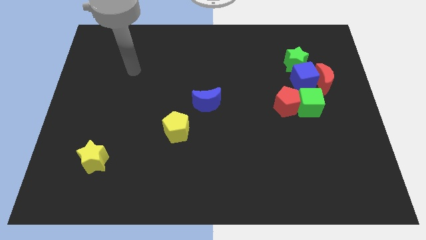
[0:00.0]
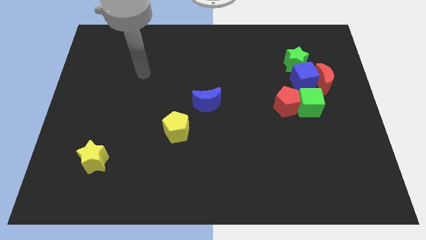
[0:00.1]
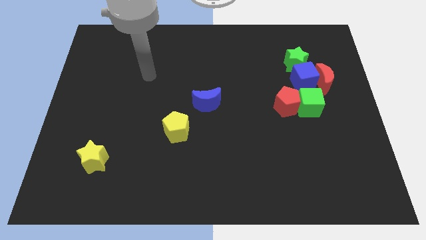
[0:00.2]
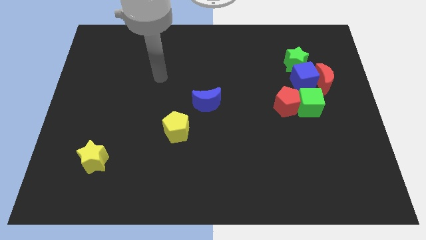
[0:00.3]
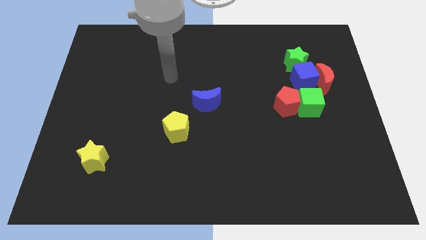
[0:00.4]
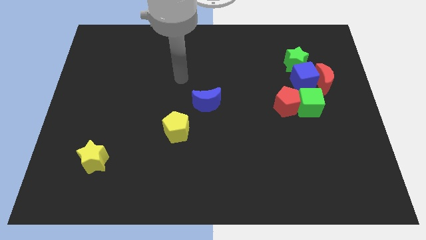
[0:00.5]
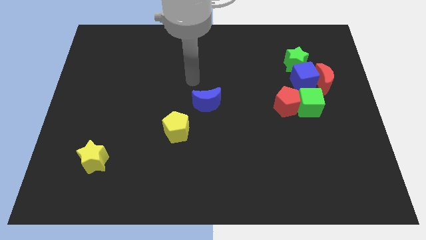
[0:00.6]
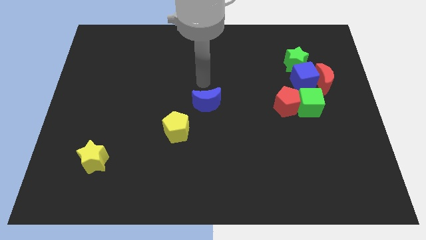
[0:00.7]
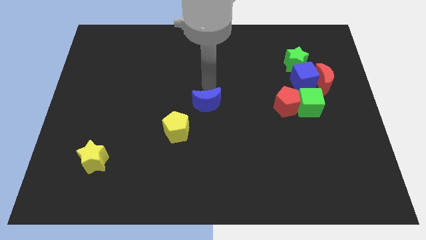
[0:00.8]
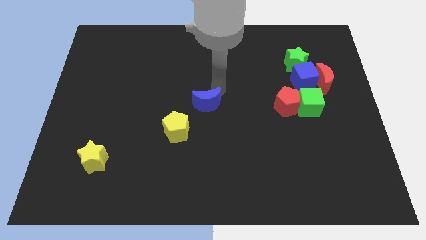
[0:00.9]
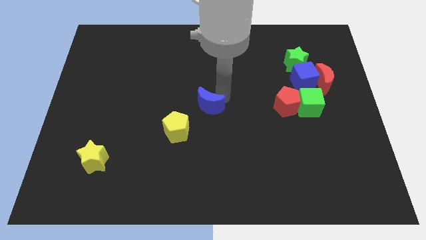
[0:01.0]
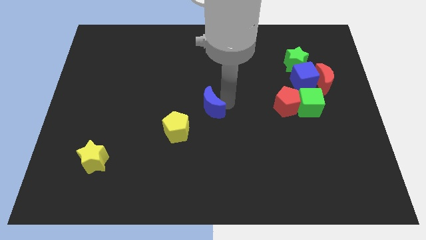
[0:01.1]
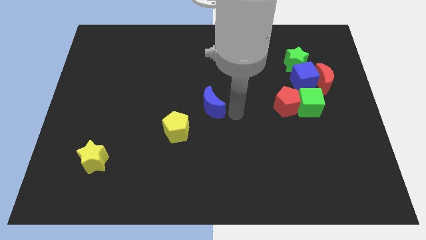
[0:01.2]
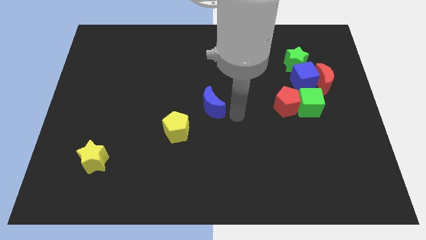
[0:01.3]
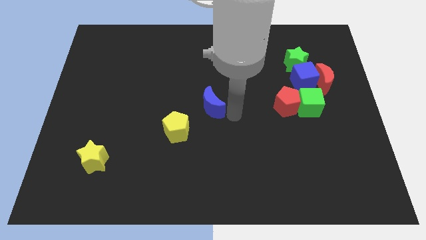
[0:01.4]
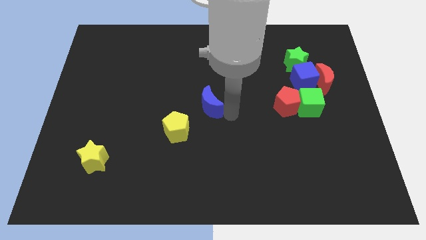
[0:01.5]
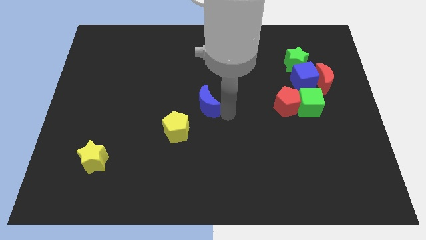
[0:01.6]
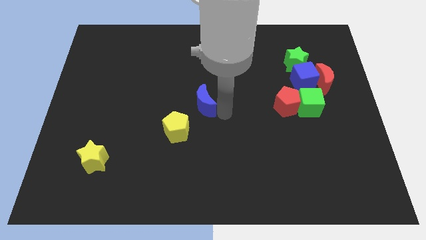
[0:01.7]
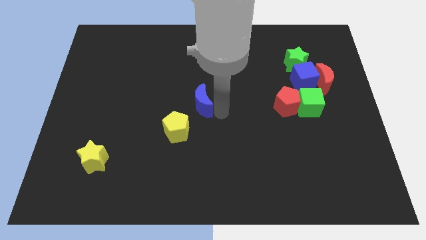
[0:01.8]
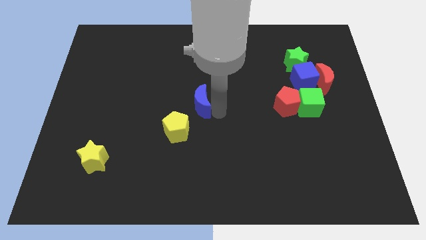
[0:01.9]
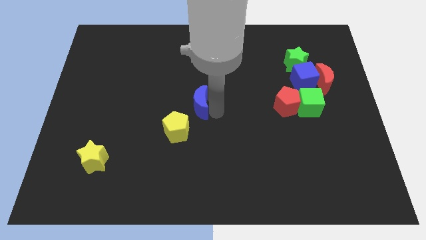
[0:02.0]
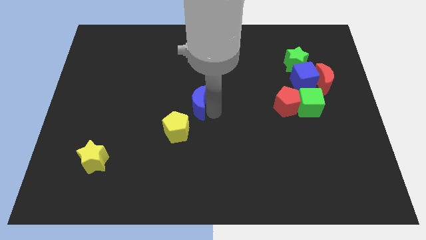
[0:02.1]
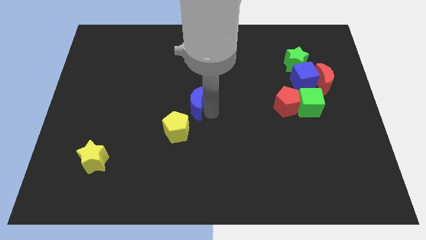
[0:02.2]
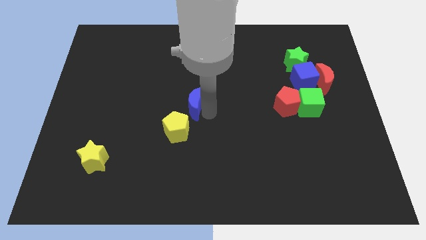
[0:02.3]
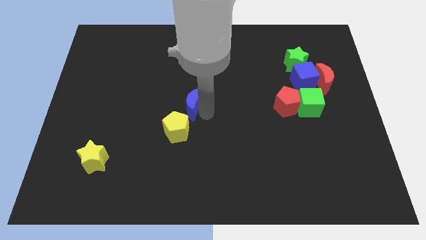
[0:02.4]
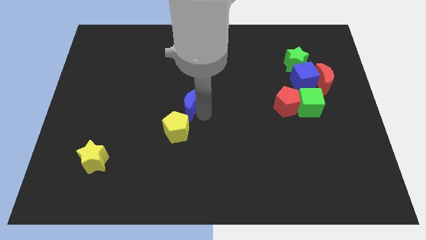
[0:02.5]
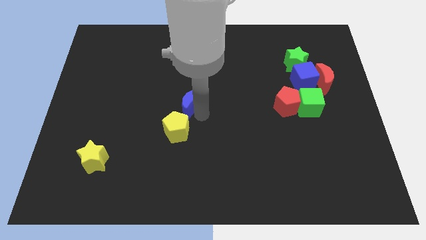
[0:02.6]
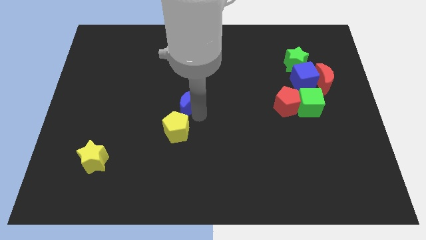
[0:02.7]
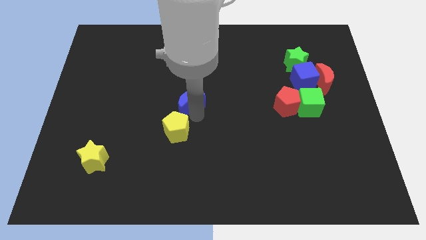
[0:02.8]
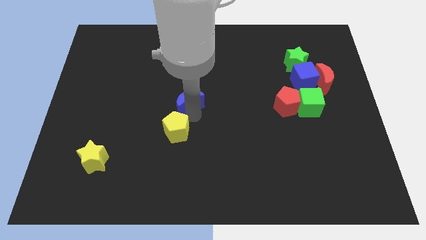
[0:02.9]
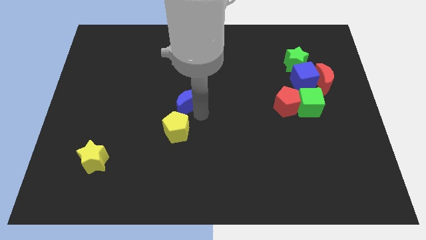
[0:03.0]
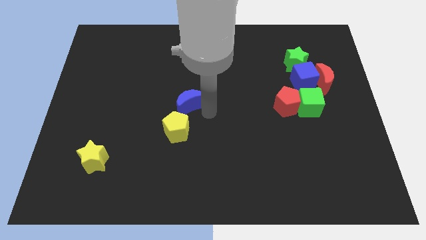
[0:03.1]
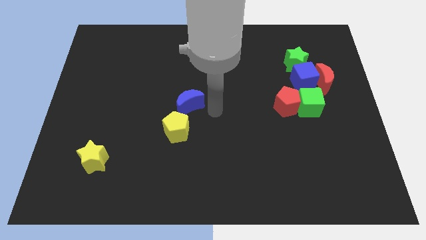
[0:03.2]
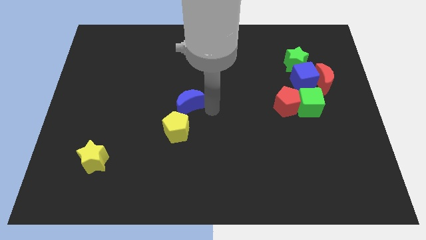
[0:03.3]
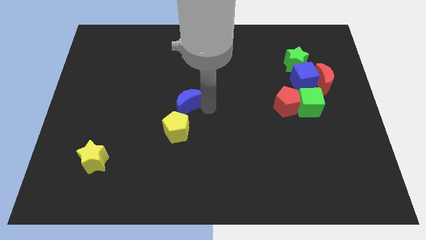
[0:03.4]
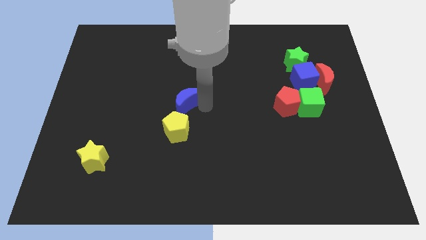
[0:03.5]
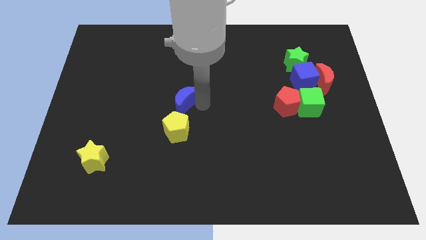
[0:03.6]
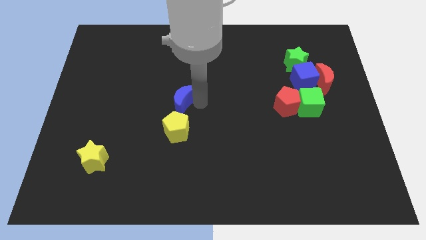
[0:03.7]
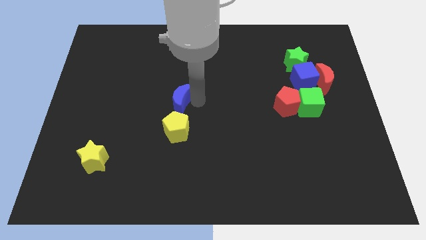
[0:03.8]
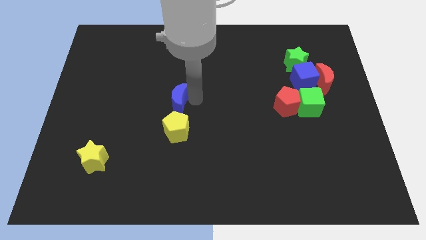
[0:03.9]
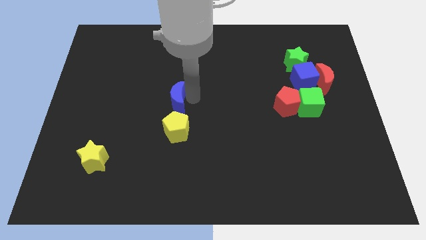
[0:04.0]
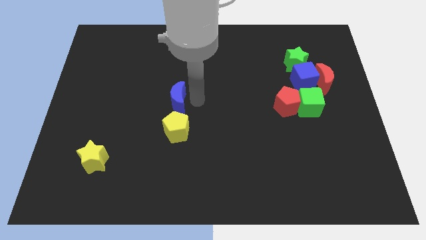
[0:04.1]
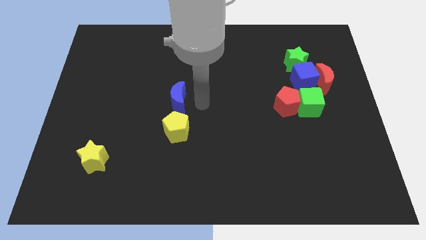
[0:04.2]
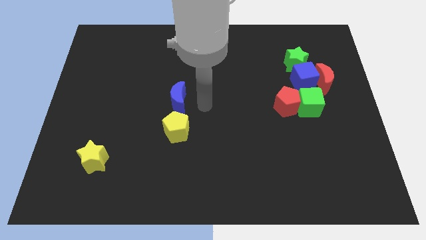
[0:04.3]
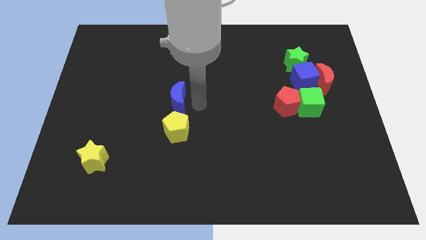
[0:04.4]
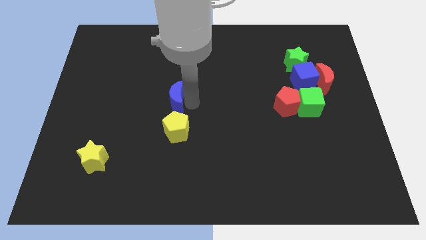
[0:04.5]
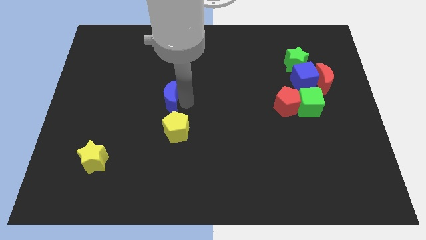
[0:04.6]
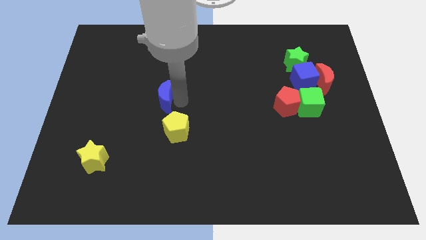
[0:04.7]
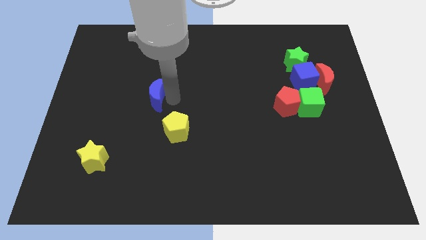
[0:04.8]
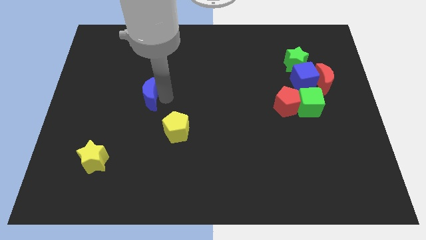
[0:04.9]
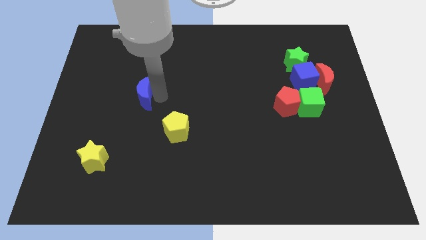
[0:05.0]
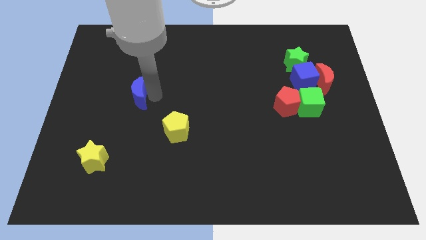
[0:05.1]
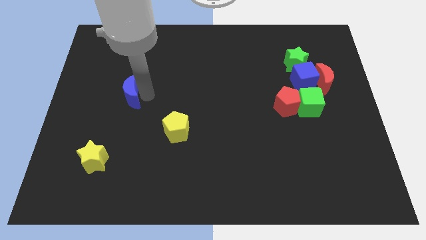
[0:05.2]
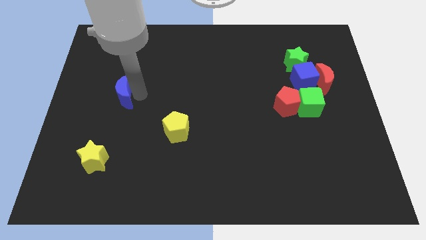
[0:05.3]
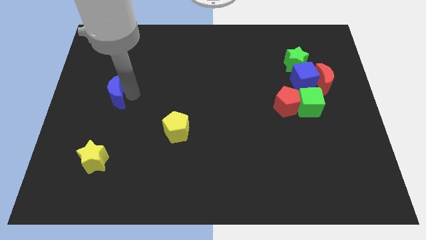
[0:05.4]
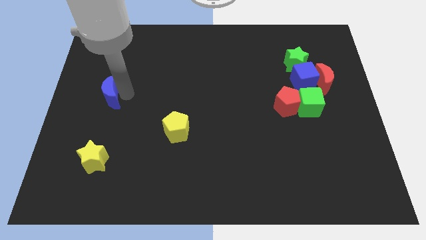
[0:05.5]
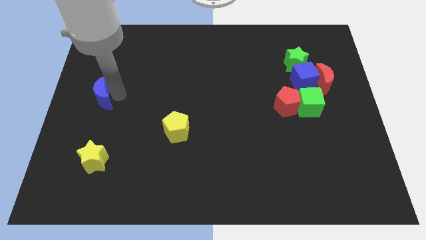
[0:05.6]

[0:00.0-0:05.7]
move the blue moon to the left side of the board

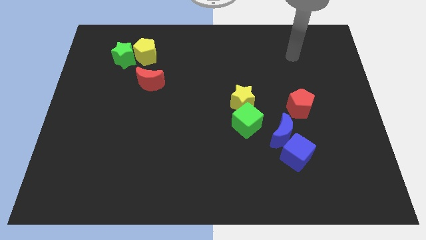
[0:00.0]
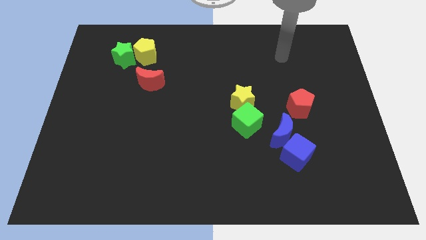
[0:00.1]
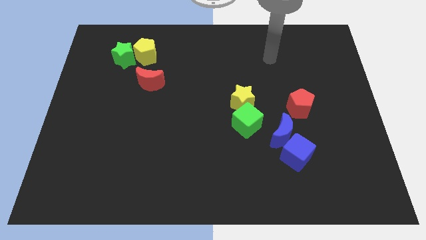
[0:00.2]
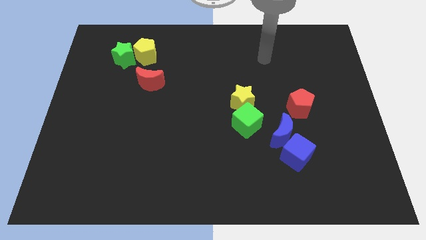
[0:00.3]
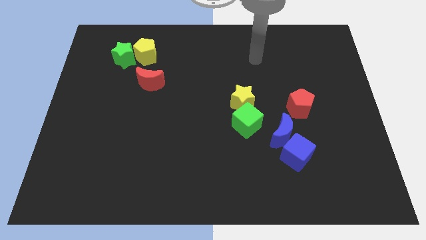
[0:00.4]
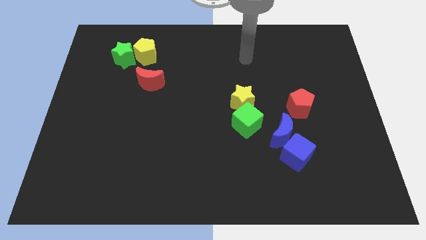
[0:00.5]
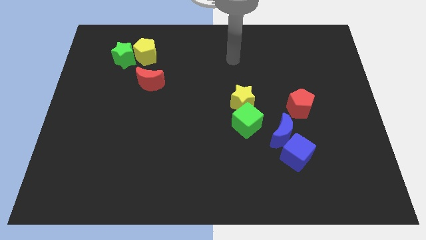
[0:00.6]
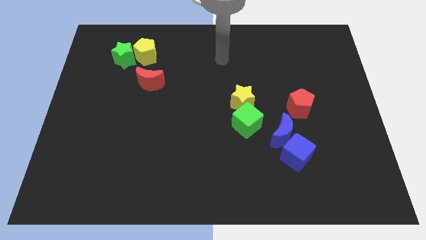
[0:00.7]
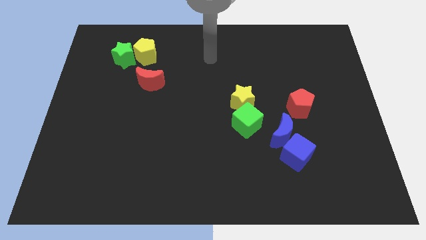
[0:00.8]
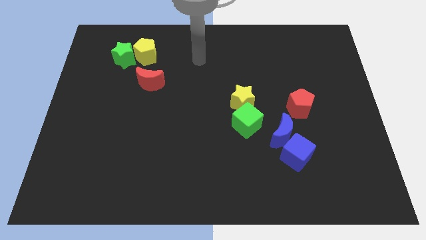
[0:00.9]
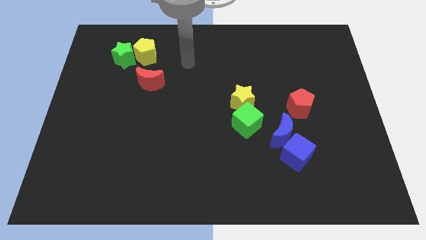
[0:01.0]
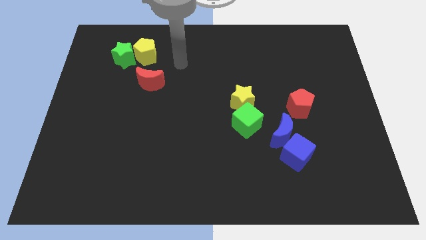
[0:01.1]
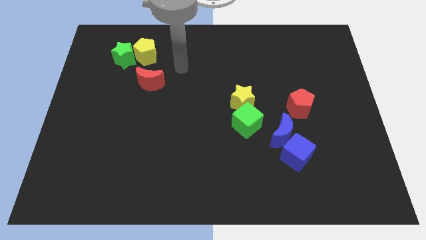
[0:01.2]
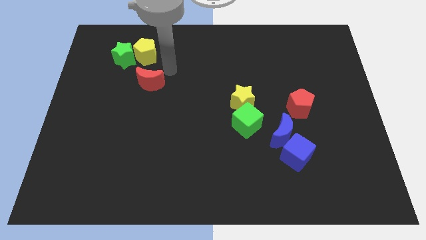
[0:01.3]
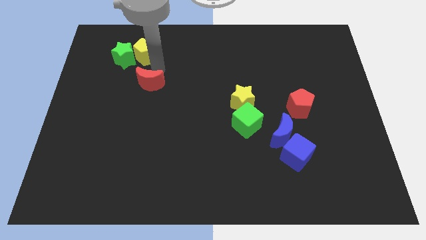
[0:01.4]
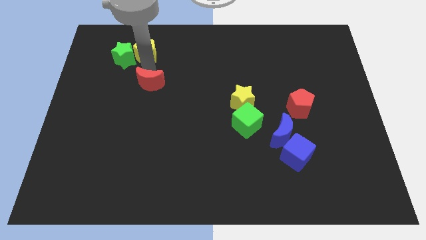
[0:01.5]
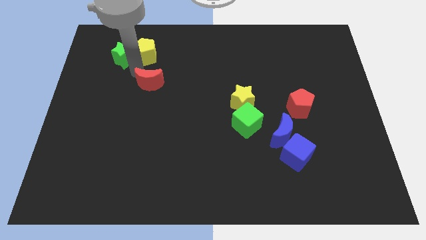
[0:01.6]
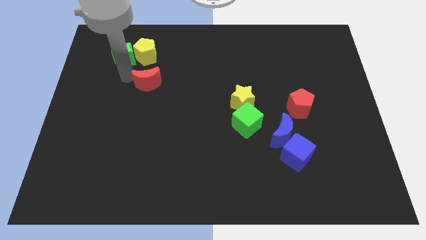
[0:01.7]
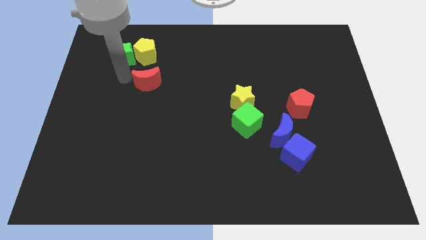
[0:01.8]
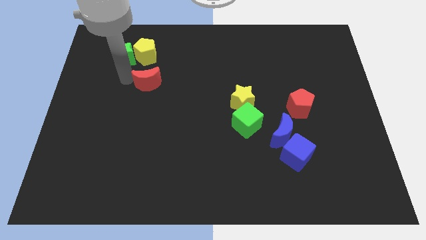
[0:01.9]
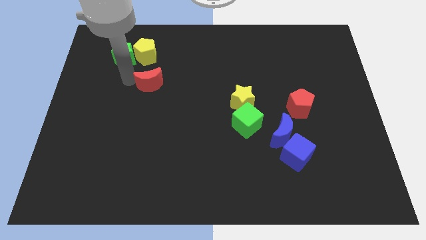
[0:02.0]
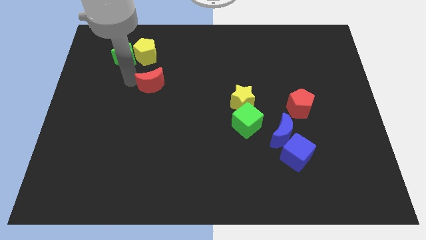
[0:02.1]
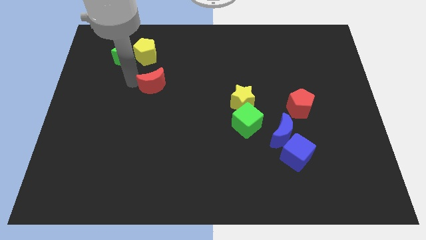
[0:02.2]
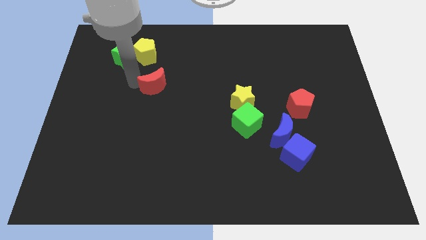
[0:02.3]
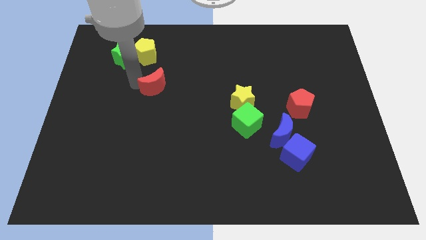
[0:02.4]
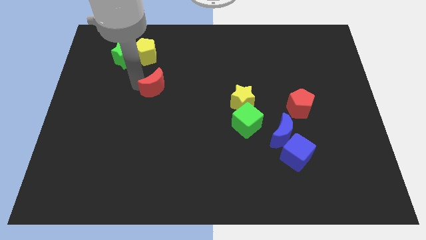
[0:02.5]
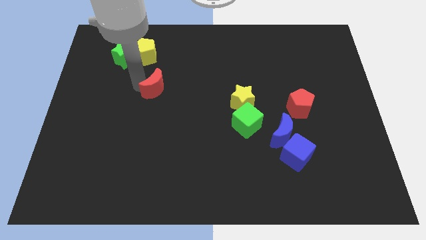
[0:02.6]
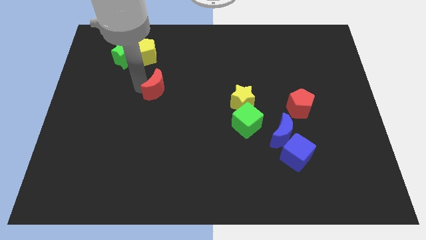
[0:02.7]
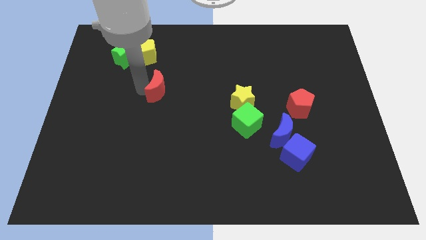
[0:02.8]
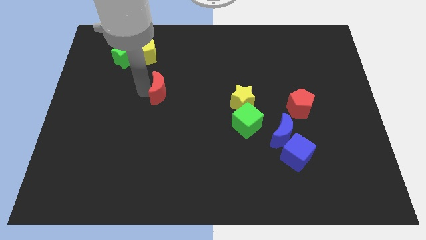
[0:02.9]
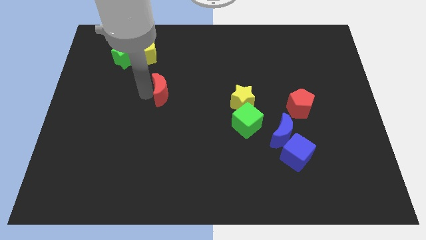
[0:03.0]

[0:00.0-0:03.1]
put the red moon to the middle of the board
